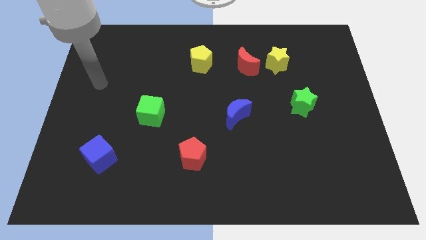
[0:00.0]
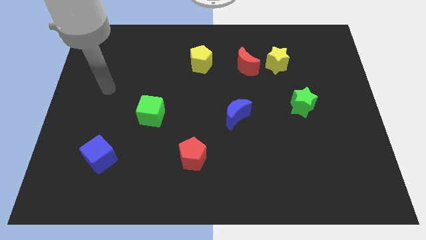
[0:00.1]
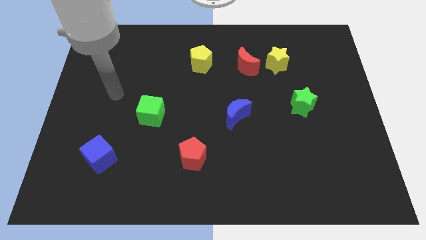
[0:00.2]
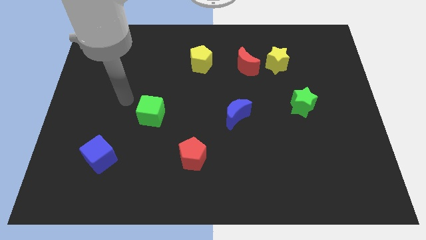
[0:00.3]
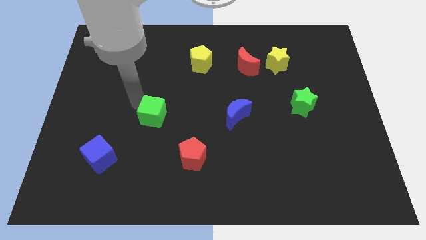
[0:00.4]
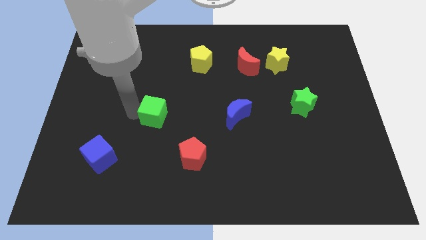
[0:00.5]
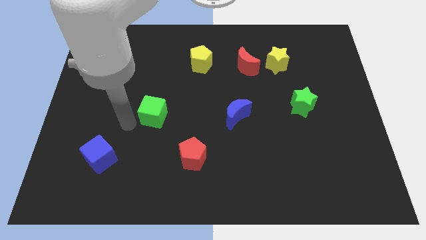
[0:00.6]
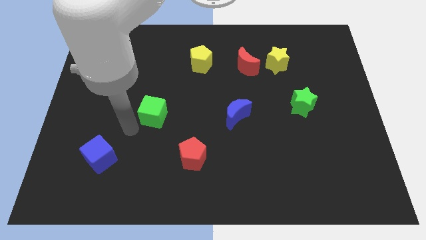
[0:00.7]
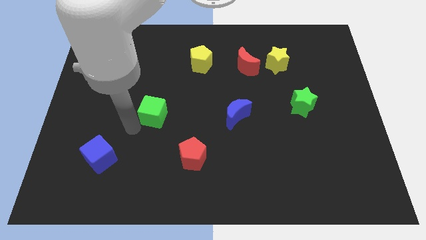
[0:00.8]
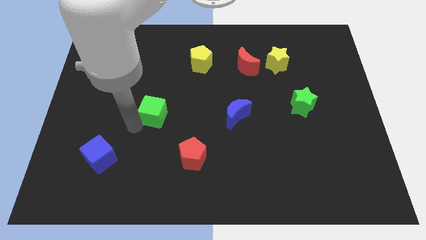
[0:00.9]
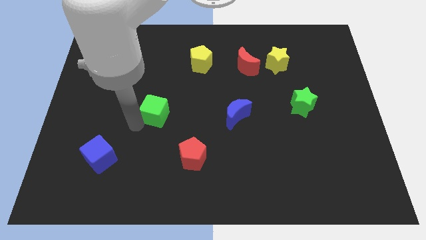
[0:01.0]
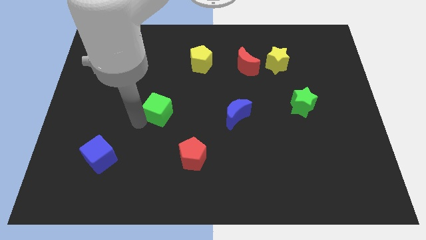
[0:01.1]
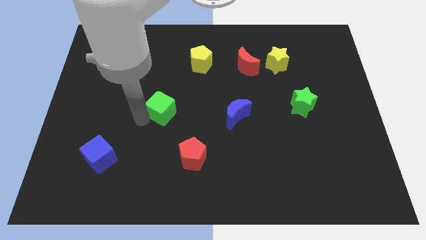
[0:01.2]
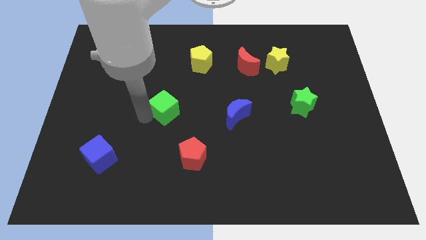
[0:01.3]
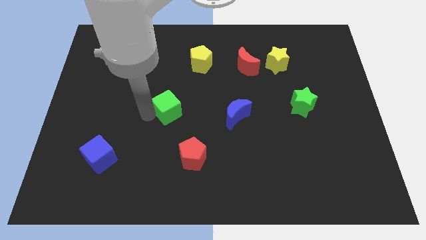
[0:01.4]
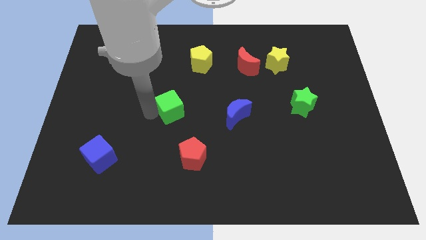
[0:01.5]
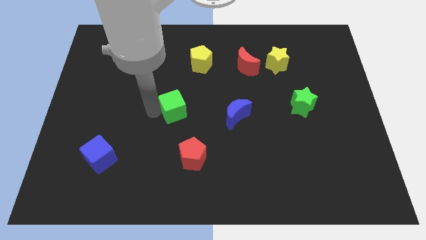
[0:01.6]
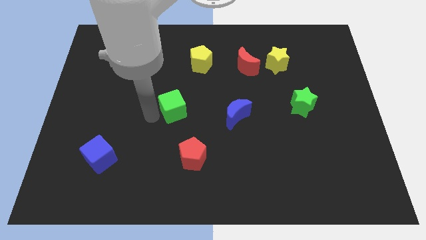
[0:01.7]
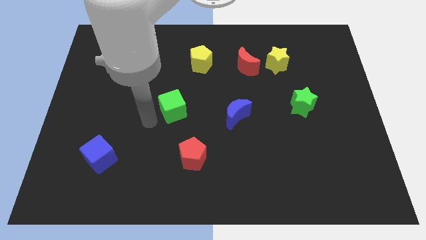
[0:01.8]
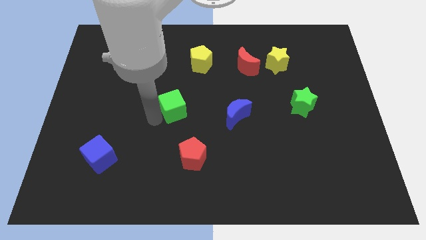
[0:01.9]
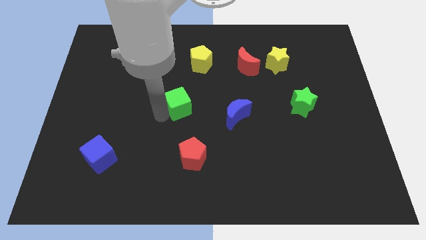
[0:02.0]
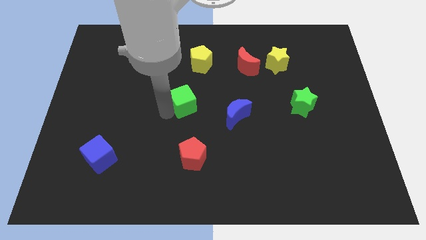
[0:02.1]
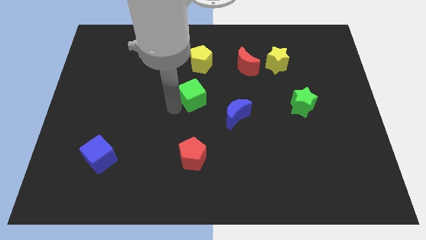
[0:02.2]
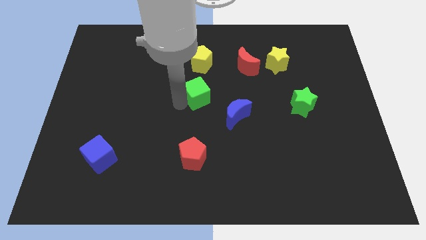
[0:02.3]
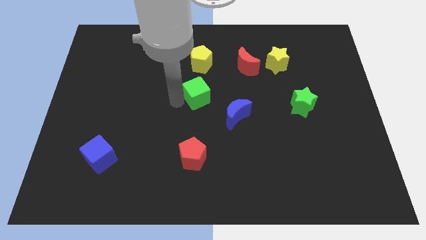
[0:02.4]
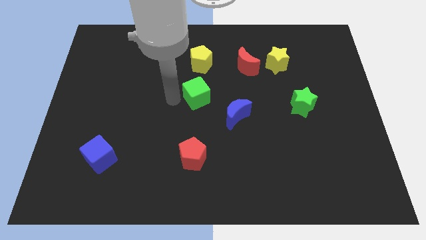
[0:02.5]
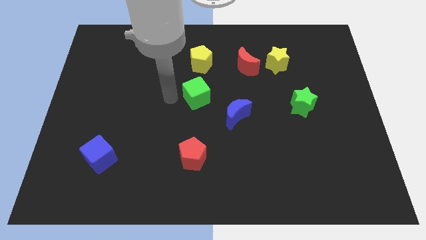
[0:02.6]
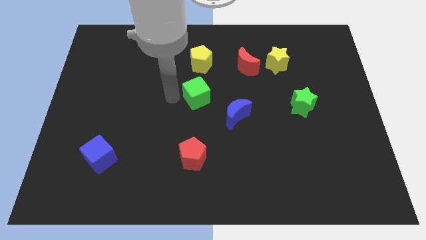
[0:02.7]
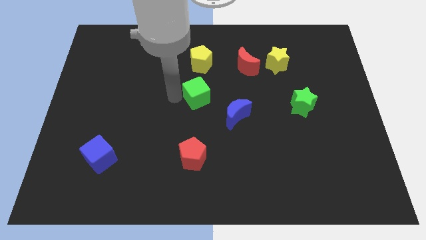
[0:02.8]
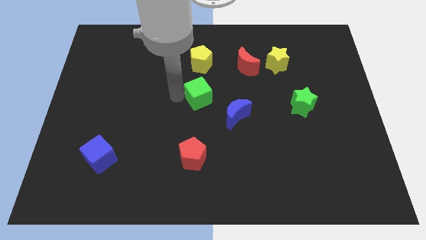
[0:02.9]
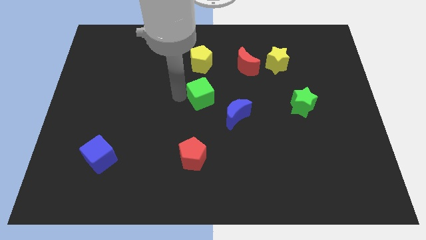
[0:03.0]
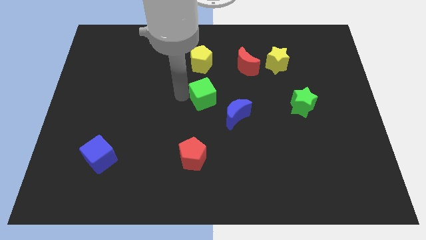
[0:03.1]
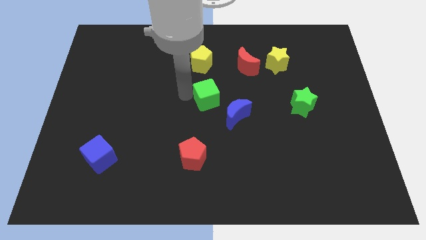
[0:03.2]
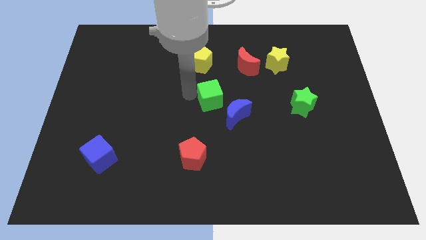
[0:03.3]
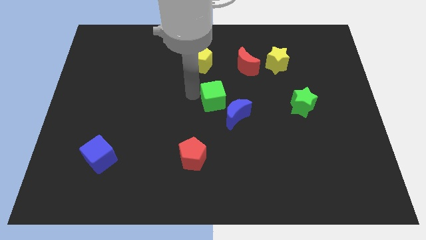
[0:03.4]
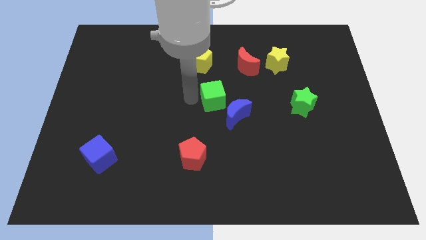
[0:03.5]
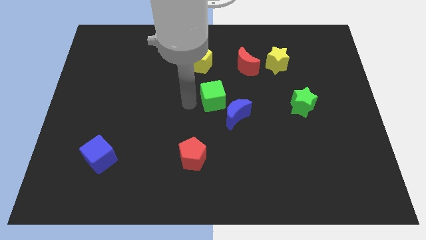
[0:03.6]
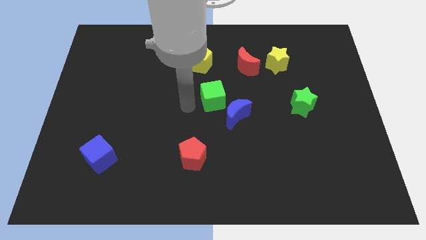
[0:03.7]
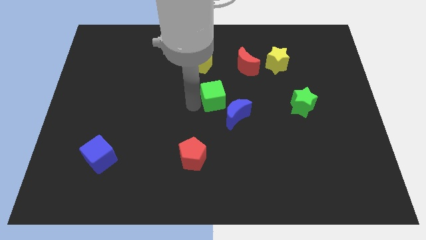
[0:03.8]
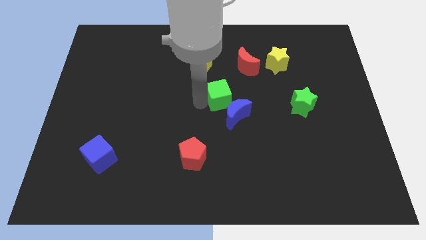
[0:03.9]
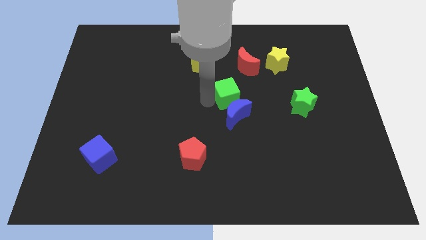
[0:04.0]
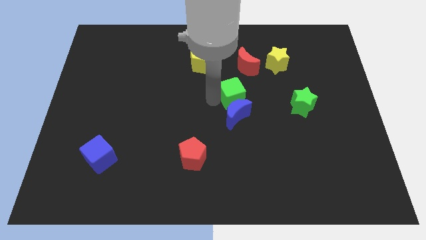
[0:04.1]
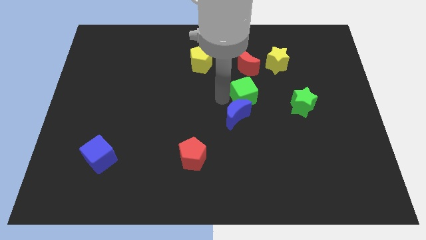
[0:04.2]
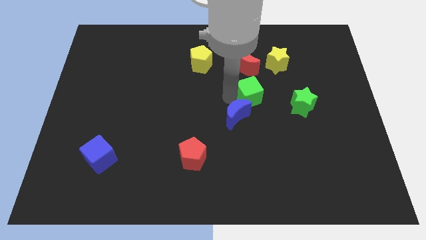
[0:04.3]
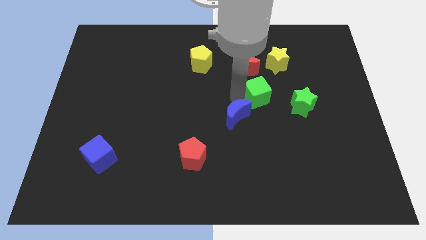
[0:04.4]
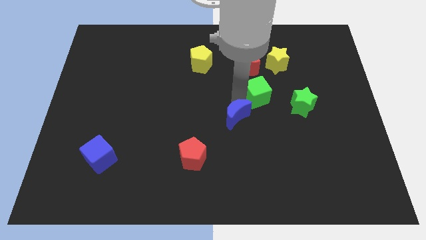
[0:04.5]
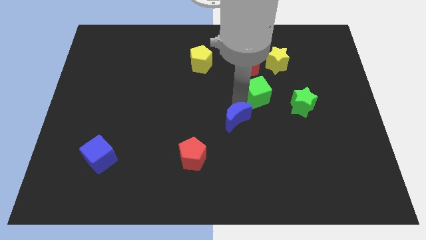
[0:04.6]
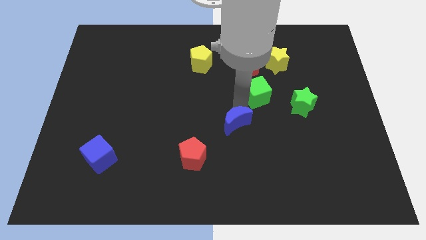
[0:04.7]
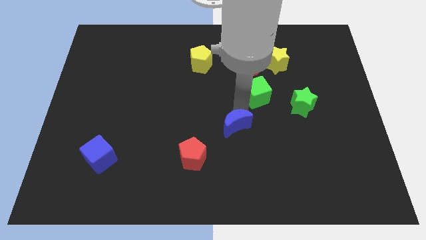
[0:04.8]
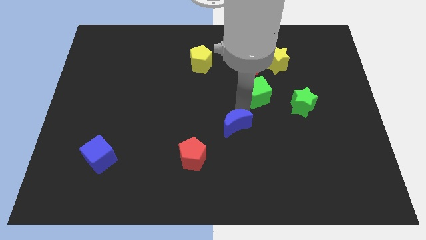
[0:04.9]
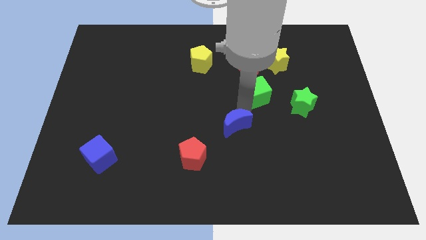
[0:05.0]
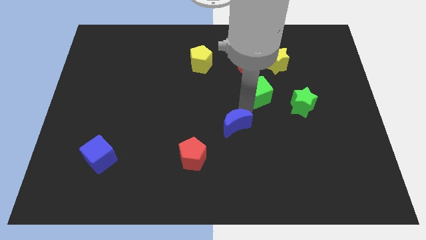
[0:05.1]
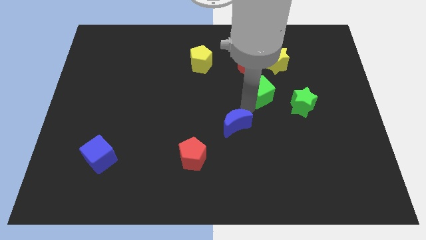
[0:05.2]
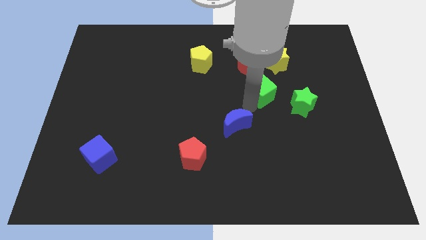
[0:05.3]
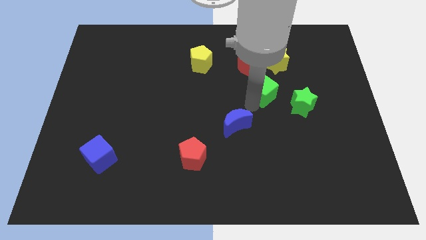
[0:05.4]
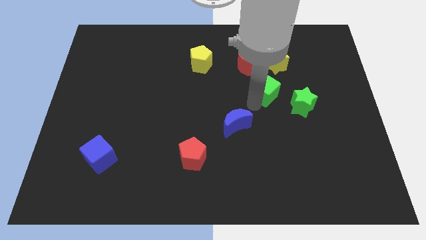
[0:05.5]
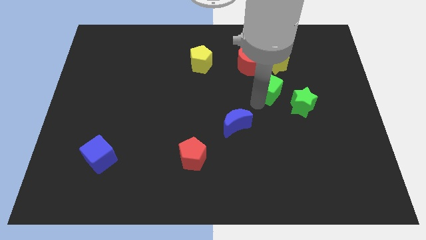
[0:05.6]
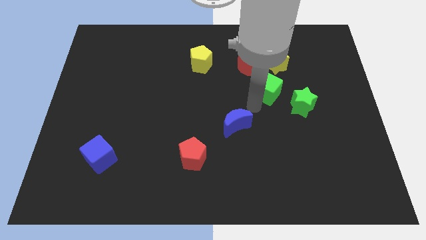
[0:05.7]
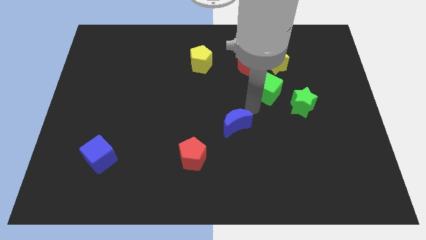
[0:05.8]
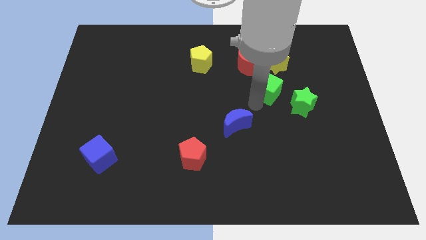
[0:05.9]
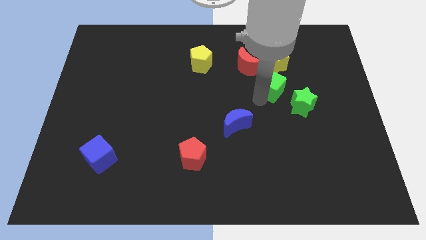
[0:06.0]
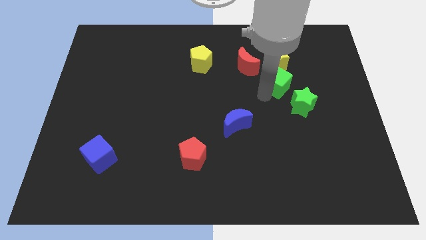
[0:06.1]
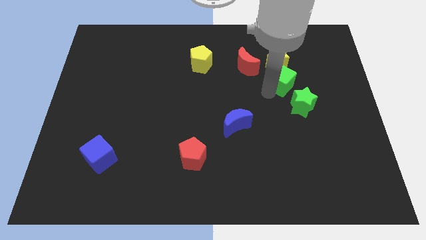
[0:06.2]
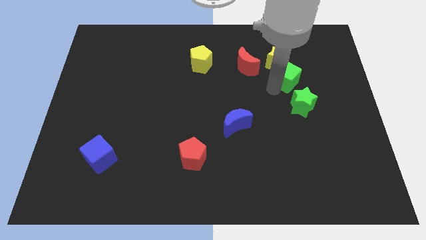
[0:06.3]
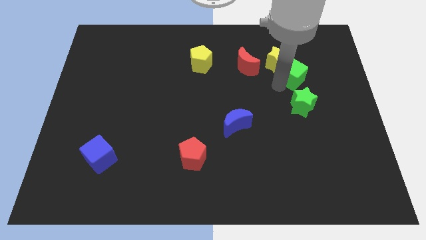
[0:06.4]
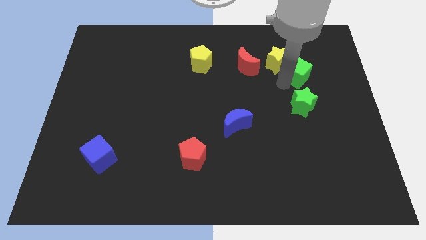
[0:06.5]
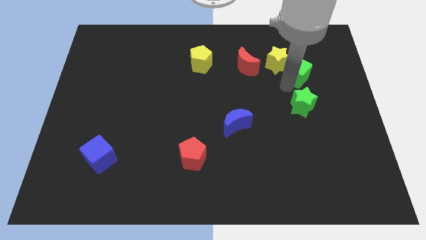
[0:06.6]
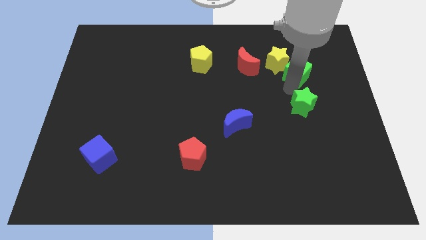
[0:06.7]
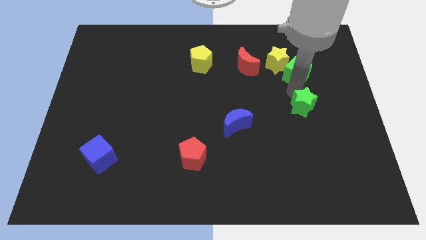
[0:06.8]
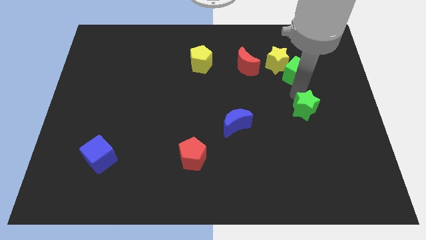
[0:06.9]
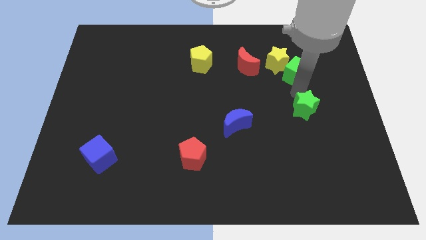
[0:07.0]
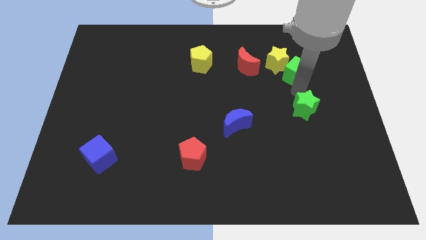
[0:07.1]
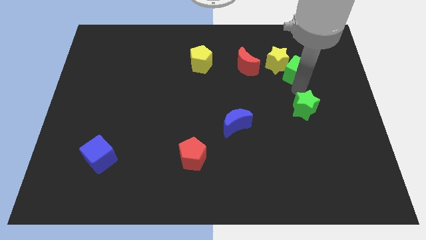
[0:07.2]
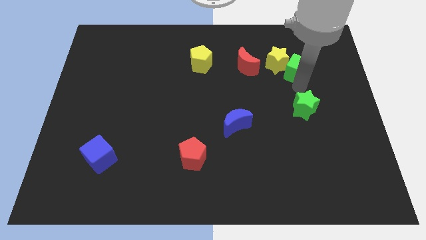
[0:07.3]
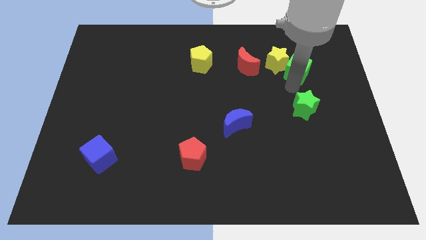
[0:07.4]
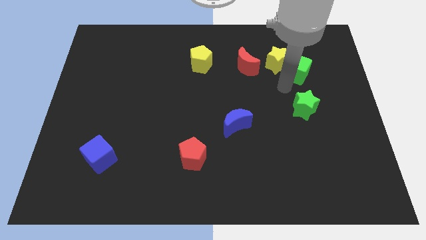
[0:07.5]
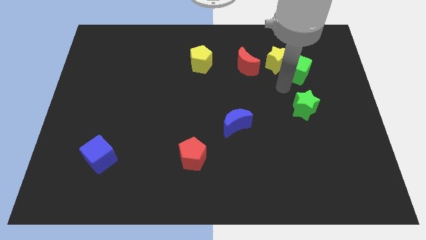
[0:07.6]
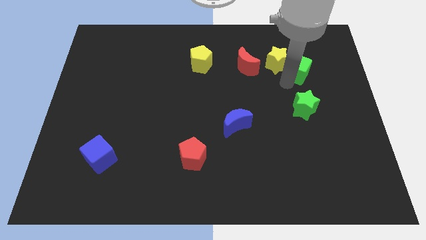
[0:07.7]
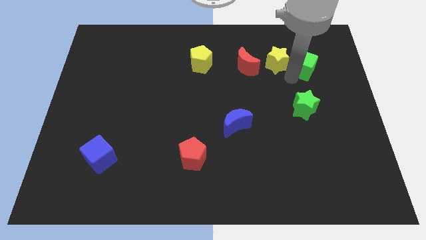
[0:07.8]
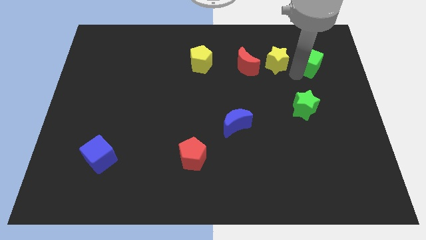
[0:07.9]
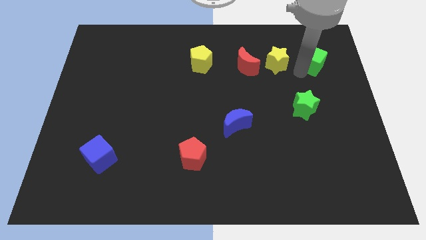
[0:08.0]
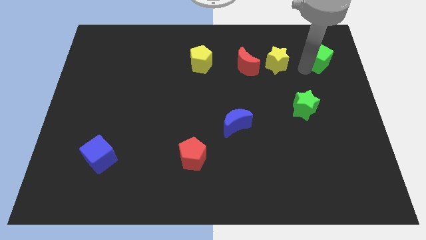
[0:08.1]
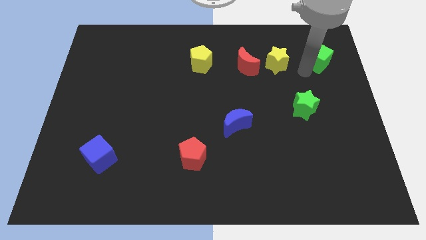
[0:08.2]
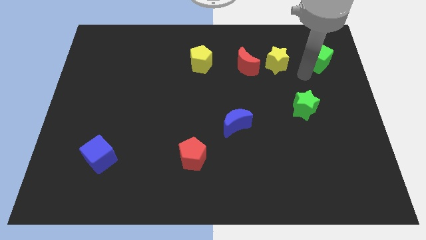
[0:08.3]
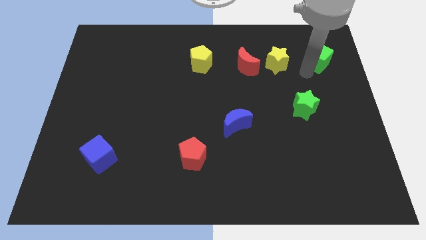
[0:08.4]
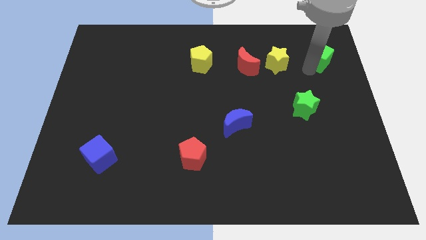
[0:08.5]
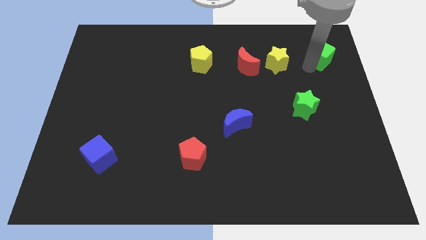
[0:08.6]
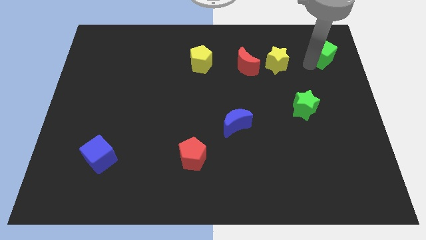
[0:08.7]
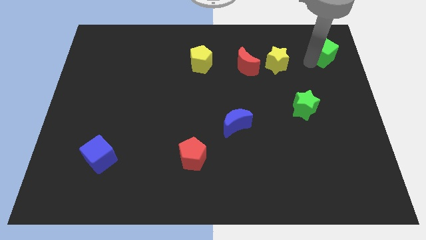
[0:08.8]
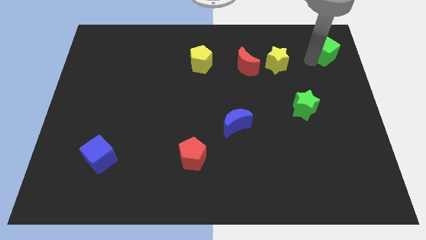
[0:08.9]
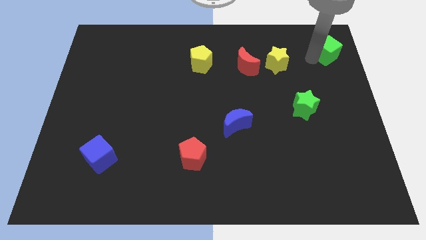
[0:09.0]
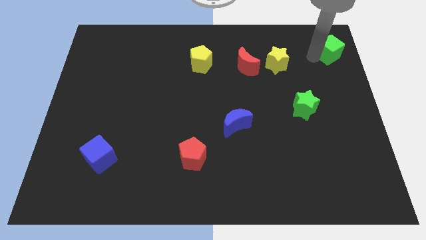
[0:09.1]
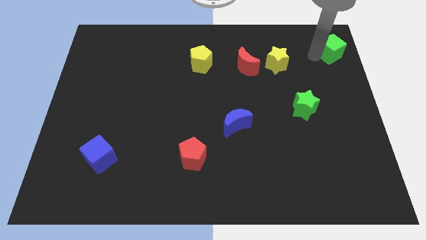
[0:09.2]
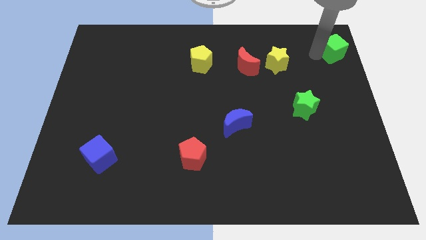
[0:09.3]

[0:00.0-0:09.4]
slide the green cube to the top right of the board
